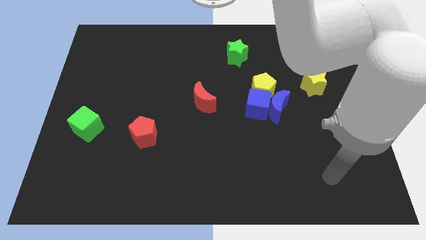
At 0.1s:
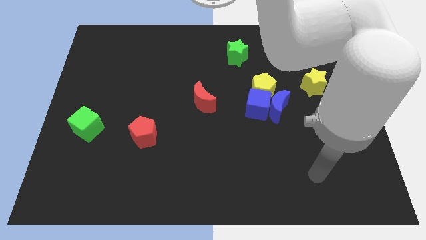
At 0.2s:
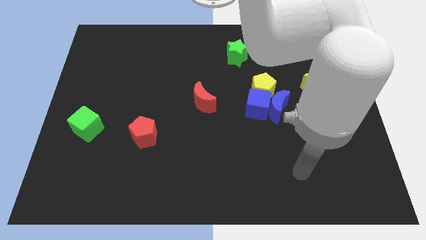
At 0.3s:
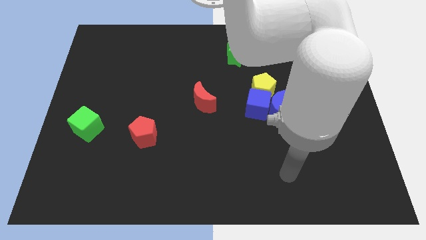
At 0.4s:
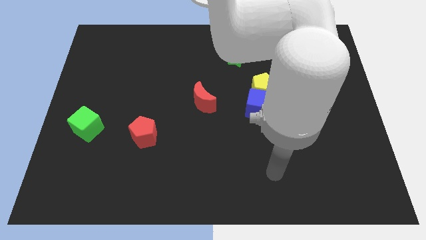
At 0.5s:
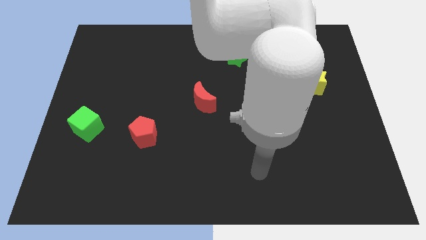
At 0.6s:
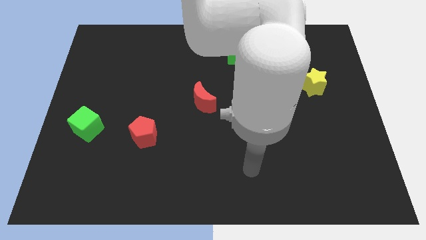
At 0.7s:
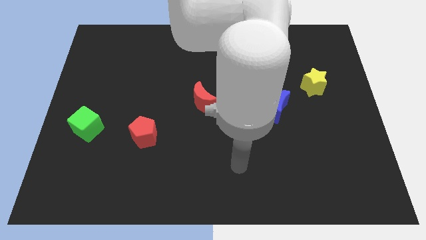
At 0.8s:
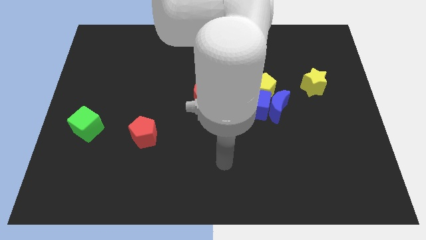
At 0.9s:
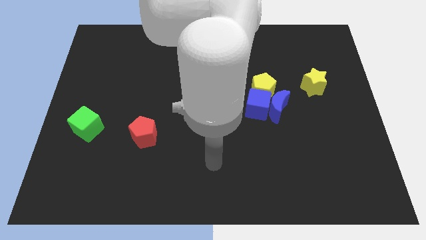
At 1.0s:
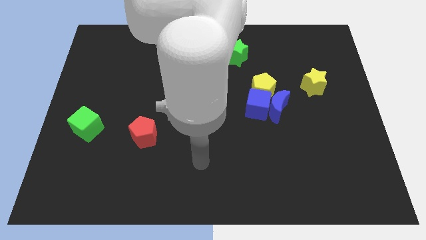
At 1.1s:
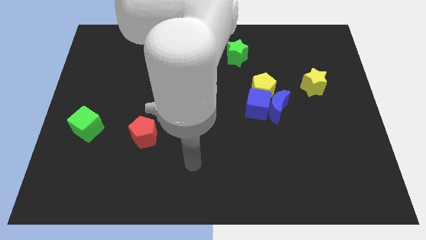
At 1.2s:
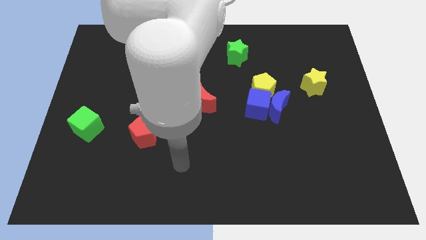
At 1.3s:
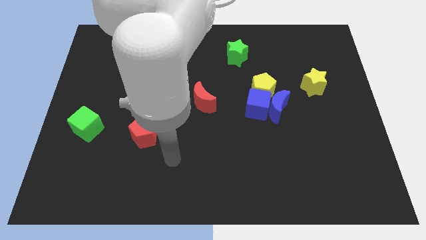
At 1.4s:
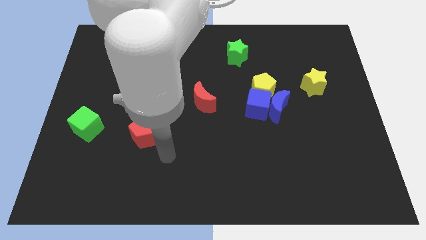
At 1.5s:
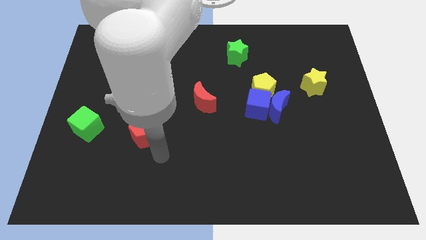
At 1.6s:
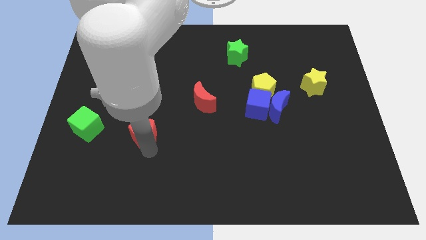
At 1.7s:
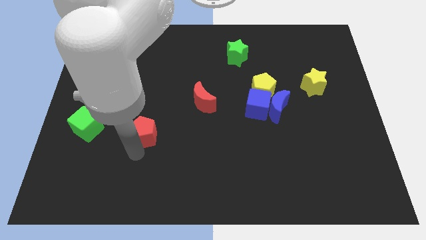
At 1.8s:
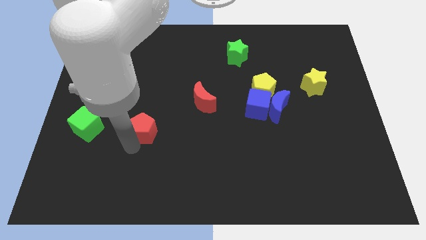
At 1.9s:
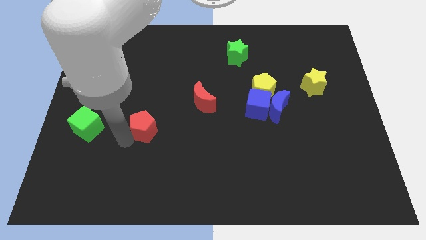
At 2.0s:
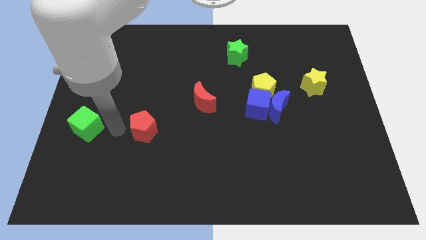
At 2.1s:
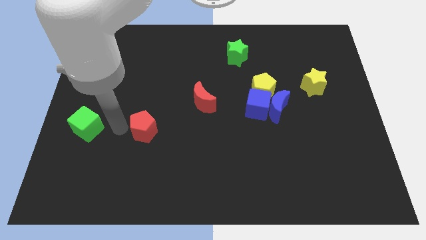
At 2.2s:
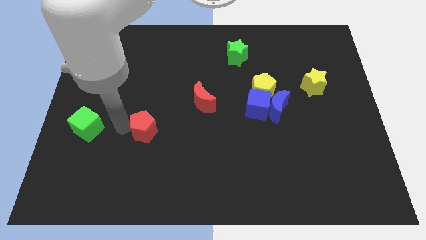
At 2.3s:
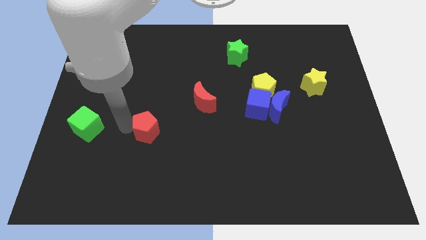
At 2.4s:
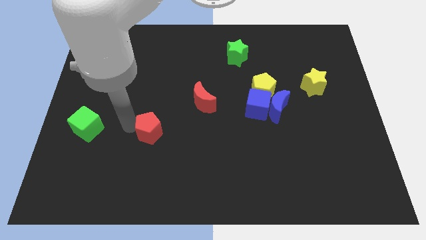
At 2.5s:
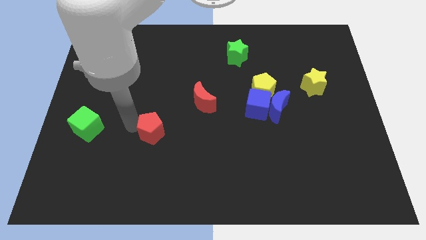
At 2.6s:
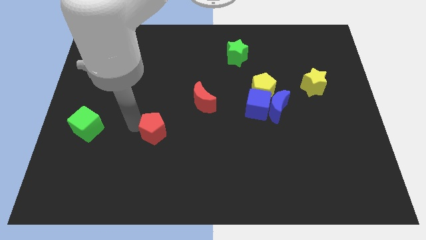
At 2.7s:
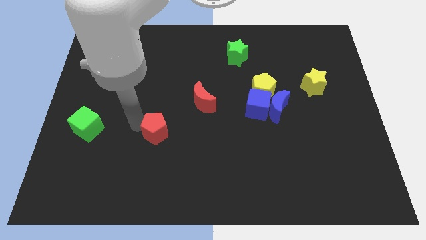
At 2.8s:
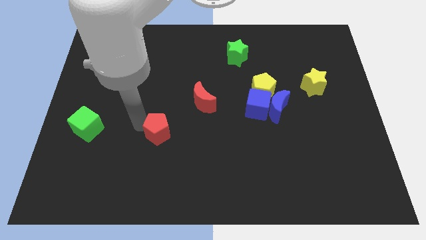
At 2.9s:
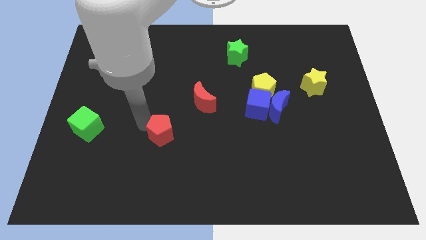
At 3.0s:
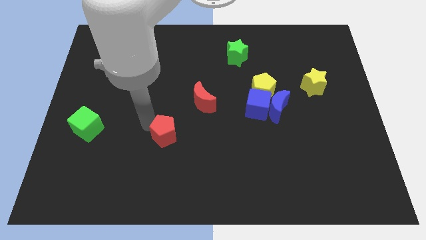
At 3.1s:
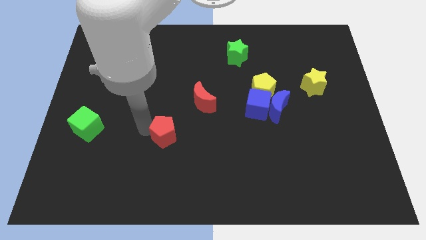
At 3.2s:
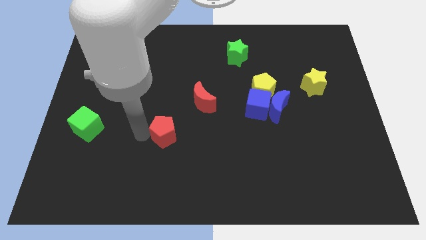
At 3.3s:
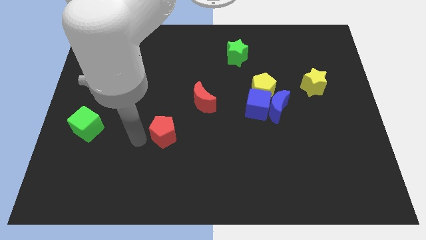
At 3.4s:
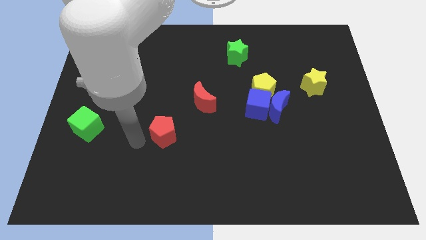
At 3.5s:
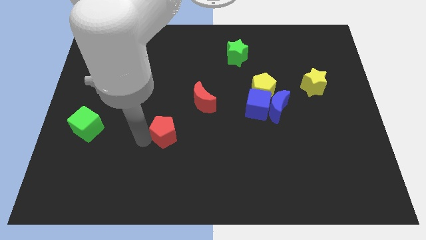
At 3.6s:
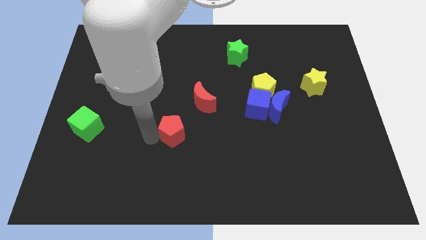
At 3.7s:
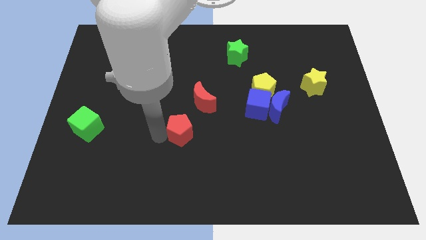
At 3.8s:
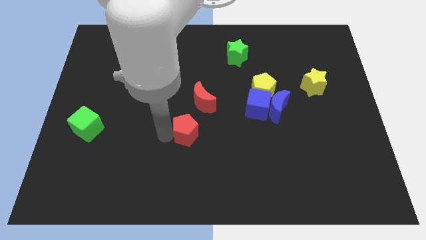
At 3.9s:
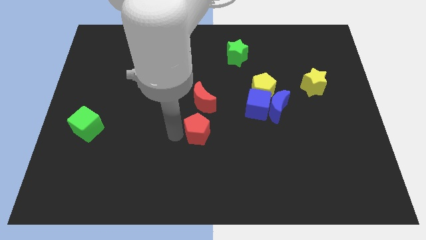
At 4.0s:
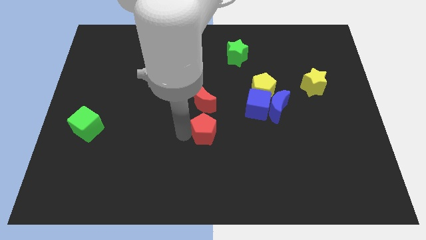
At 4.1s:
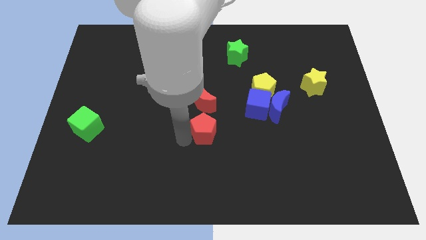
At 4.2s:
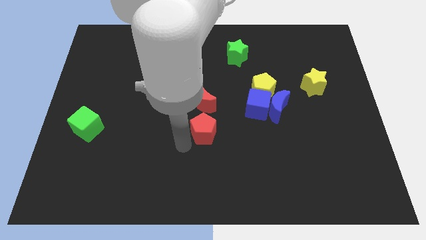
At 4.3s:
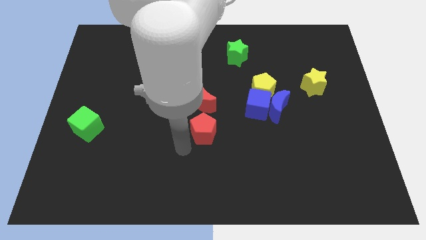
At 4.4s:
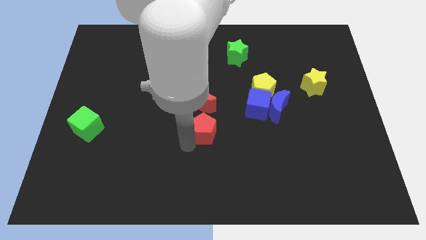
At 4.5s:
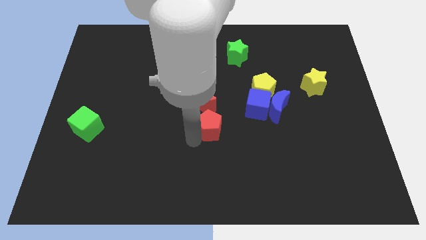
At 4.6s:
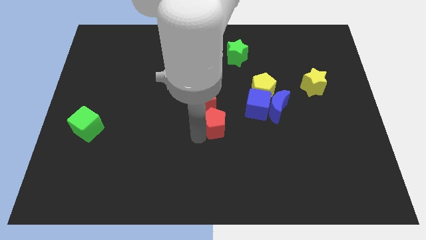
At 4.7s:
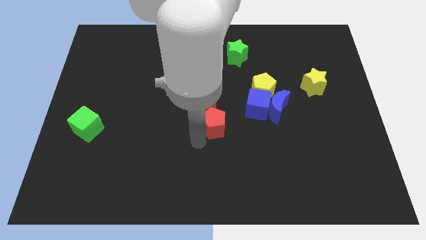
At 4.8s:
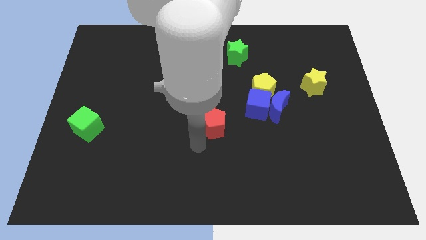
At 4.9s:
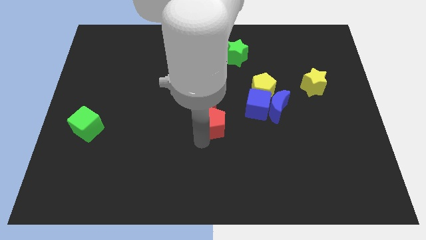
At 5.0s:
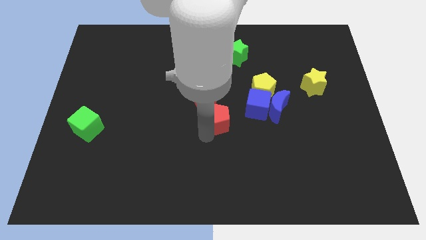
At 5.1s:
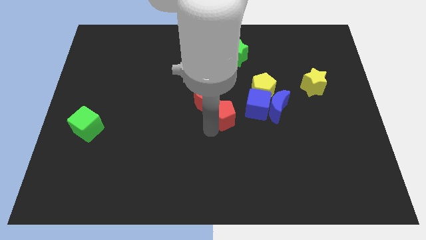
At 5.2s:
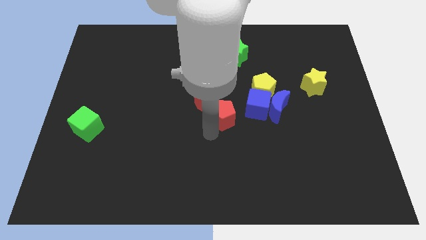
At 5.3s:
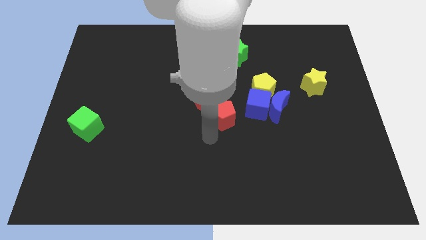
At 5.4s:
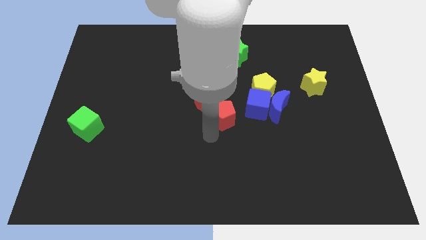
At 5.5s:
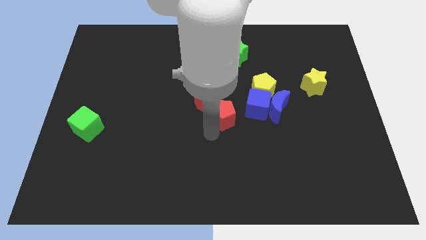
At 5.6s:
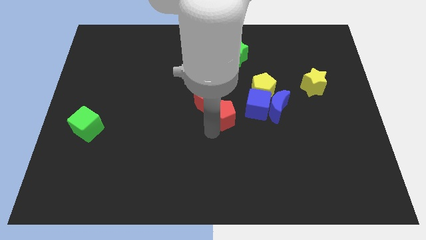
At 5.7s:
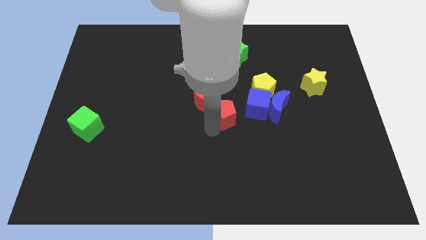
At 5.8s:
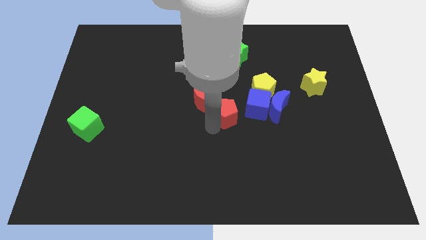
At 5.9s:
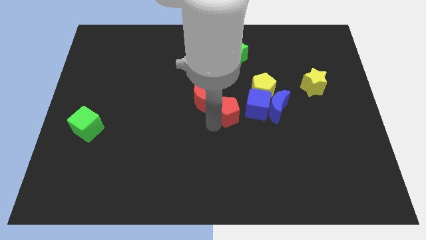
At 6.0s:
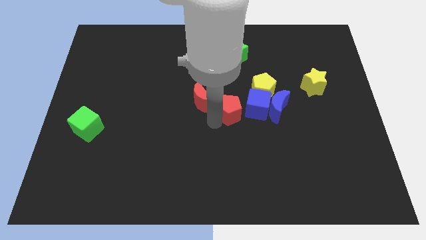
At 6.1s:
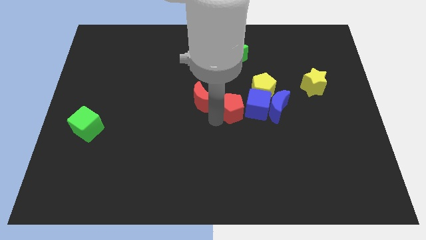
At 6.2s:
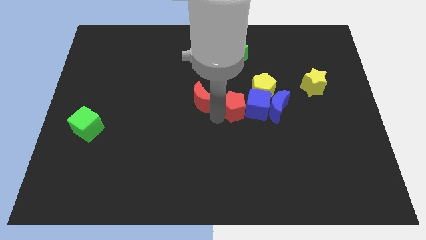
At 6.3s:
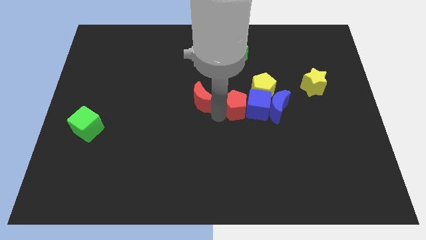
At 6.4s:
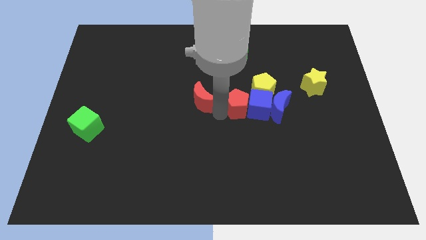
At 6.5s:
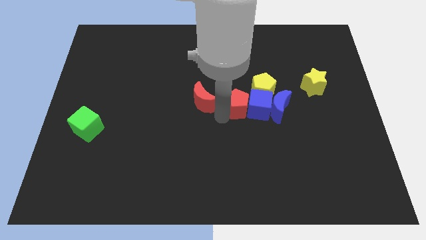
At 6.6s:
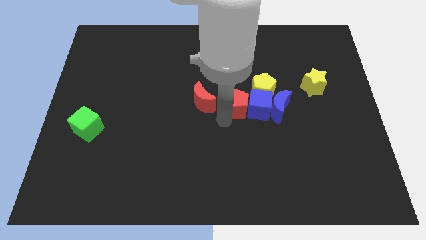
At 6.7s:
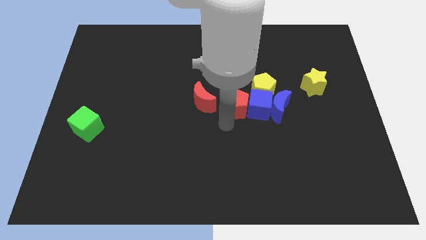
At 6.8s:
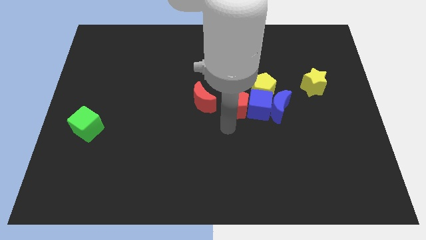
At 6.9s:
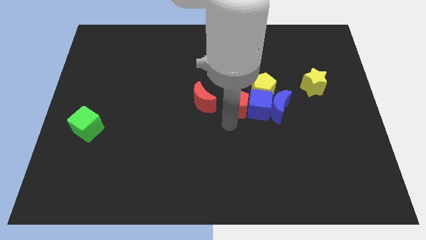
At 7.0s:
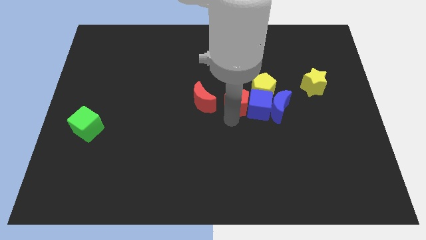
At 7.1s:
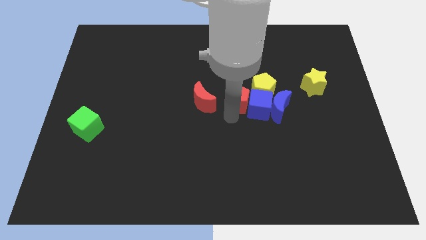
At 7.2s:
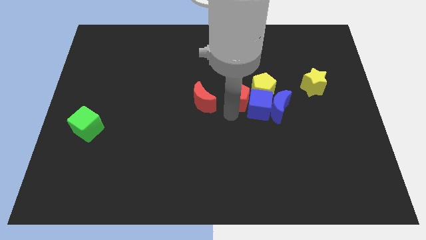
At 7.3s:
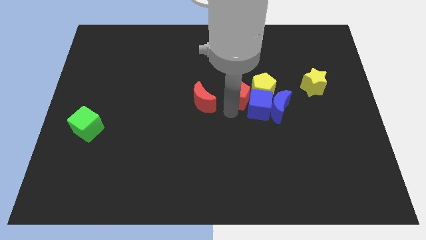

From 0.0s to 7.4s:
slide the red pentagon towards the yellow pentagon
